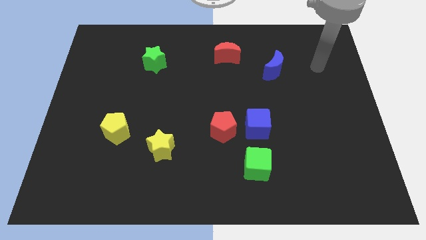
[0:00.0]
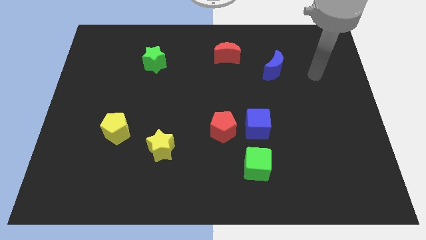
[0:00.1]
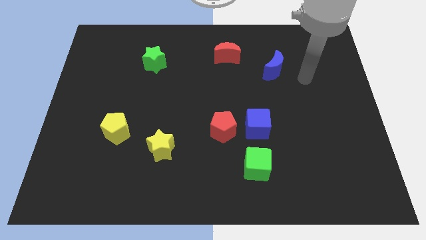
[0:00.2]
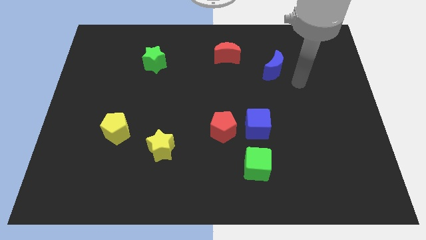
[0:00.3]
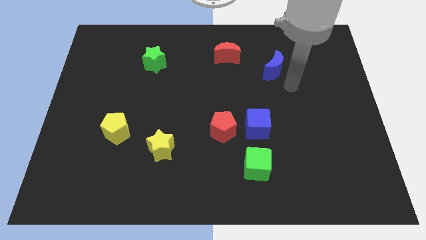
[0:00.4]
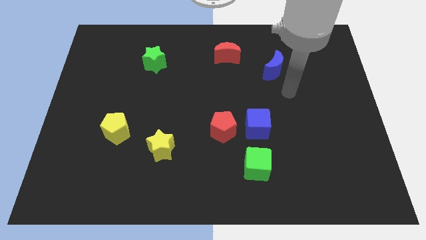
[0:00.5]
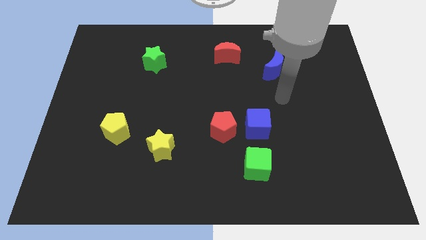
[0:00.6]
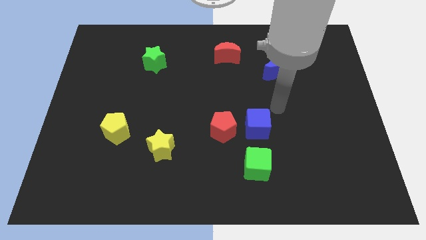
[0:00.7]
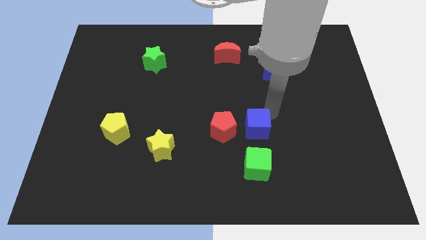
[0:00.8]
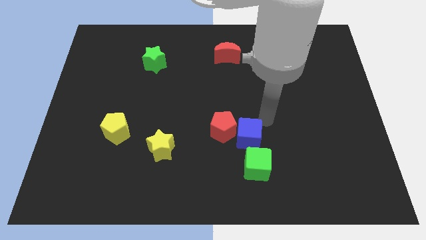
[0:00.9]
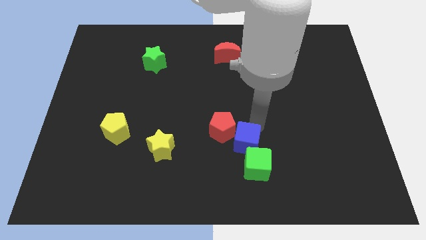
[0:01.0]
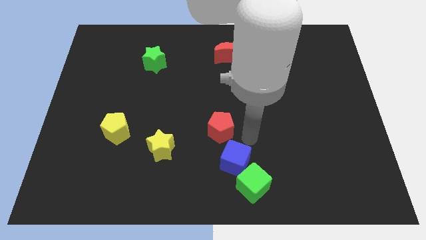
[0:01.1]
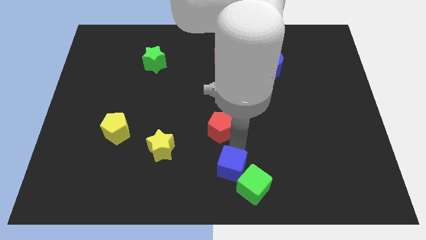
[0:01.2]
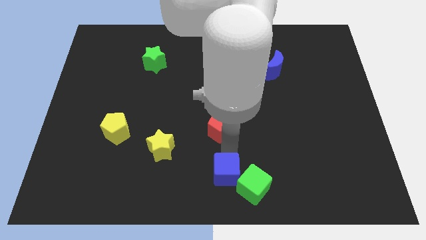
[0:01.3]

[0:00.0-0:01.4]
separate the red pentagon from the blue cube

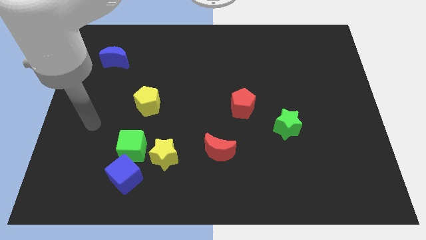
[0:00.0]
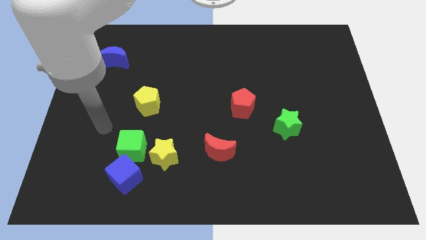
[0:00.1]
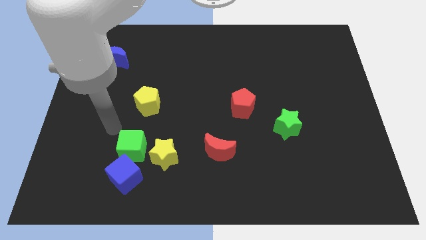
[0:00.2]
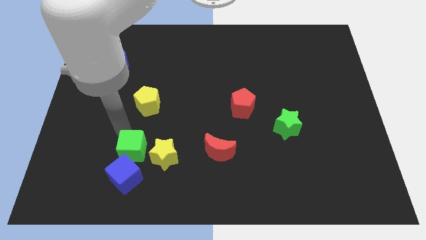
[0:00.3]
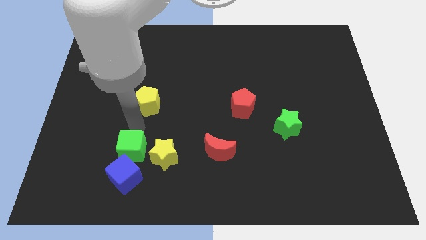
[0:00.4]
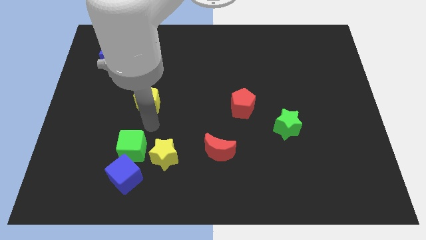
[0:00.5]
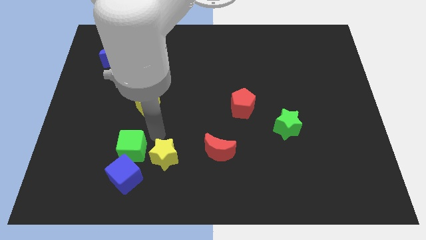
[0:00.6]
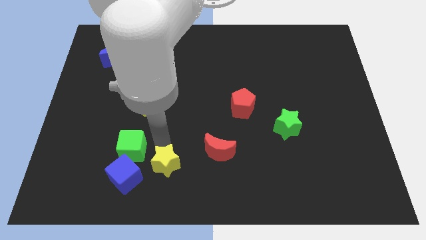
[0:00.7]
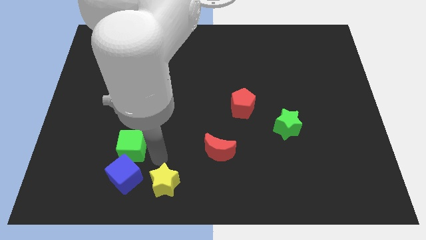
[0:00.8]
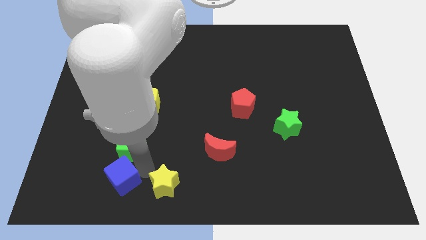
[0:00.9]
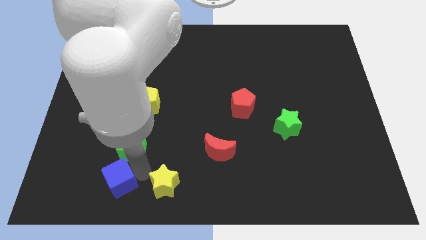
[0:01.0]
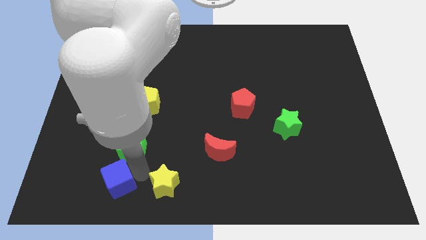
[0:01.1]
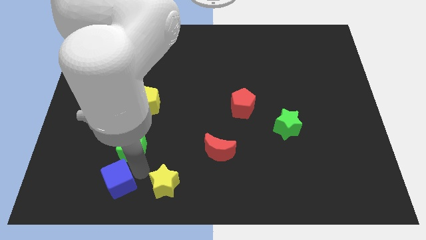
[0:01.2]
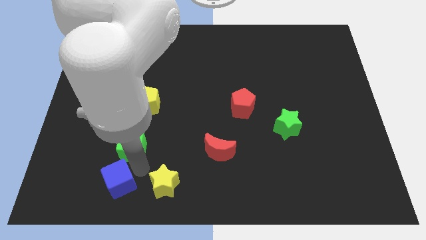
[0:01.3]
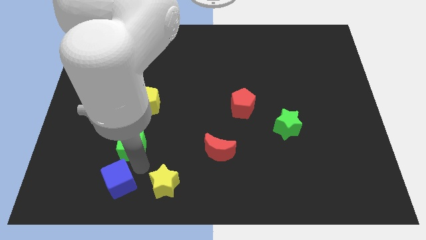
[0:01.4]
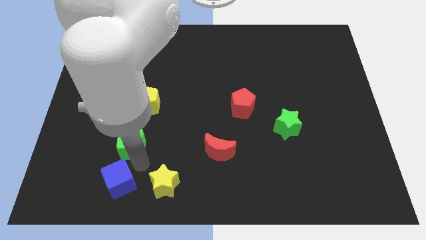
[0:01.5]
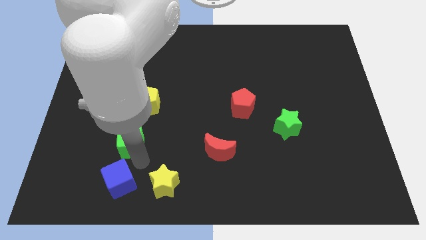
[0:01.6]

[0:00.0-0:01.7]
pull the green cube apart from the blue cube and yellow star

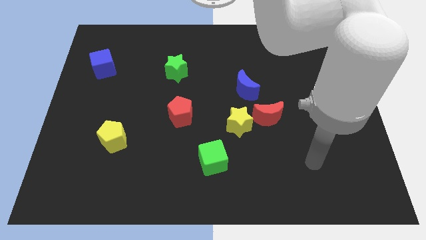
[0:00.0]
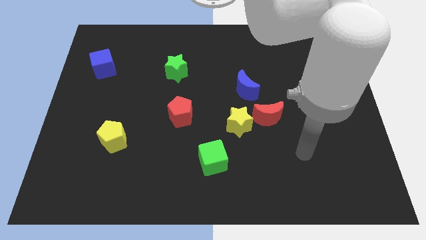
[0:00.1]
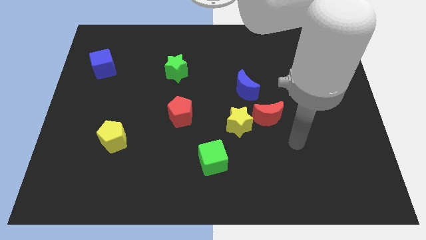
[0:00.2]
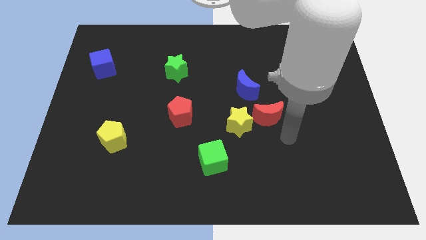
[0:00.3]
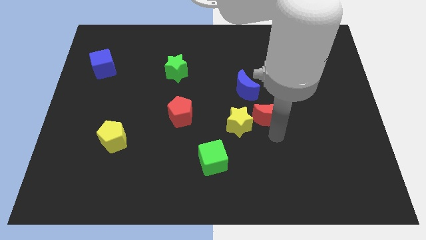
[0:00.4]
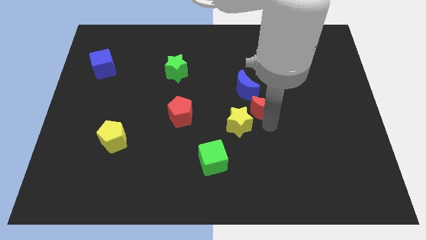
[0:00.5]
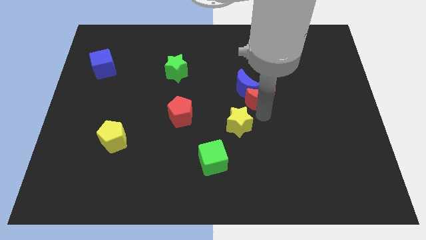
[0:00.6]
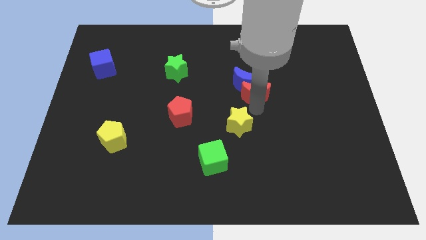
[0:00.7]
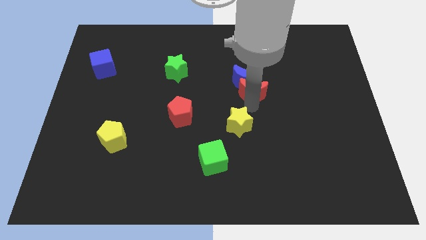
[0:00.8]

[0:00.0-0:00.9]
move the yellow star away from the red moon

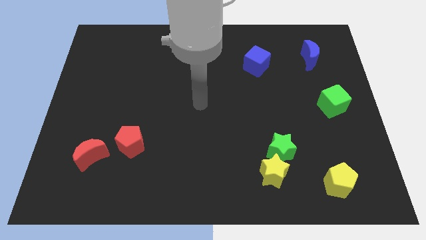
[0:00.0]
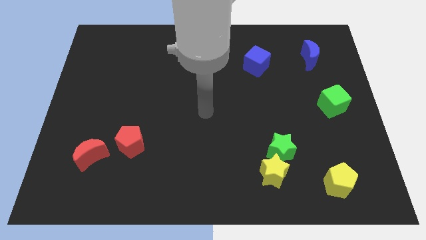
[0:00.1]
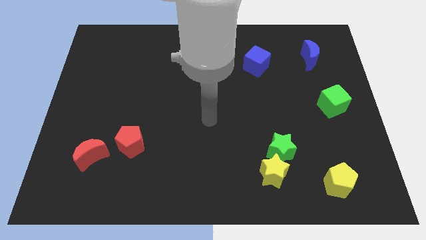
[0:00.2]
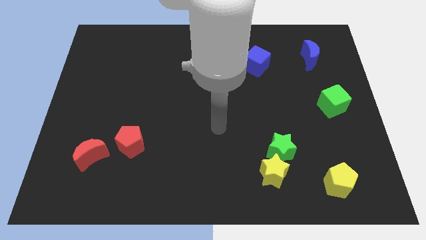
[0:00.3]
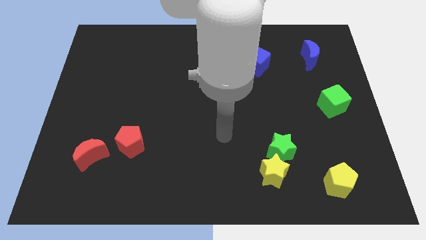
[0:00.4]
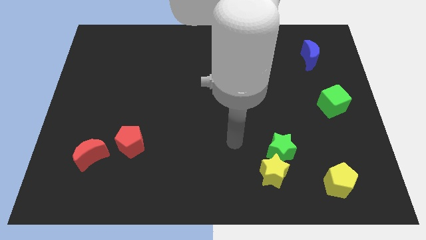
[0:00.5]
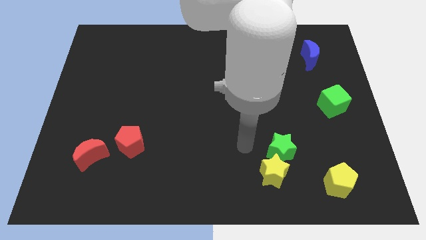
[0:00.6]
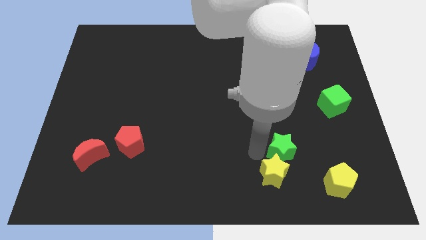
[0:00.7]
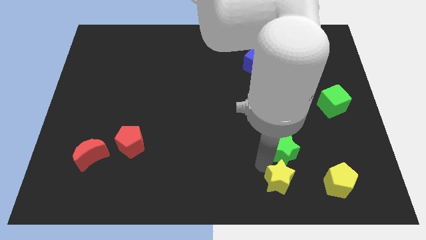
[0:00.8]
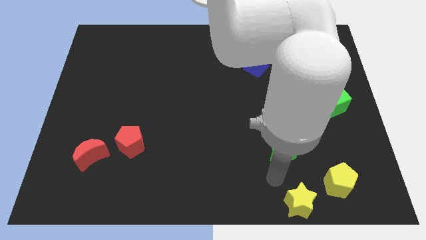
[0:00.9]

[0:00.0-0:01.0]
pull the green star apart from the yellow star

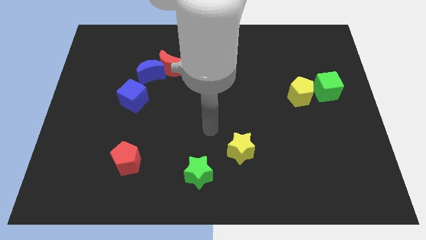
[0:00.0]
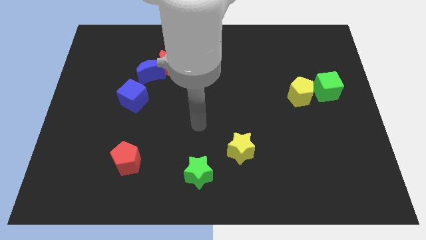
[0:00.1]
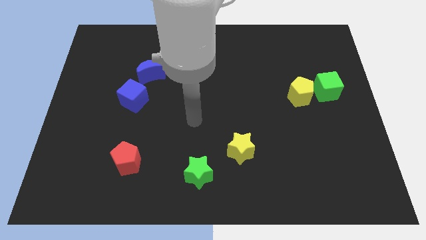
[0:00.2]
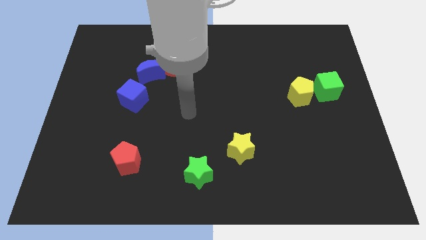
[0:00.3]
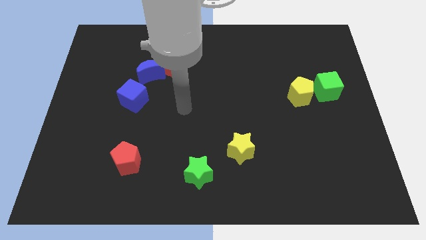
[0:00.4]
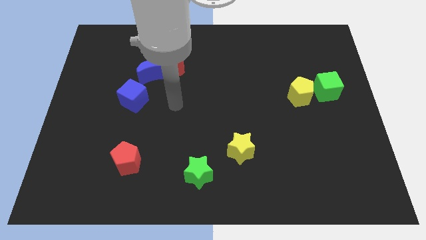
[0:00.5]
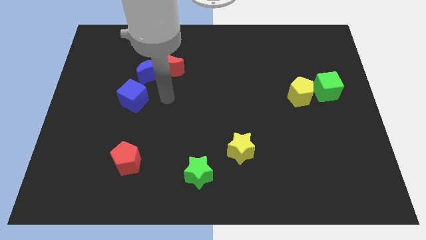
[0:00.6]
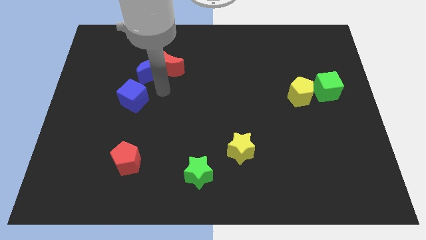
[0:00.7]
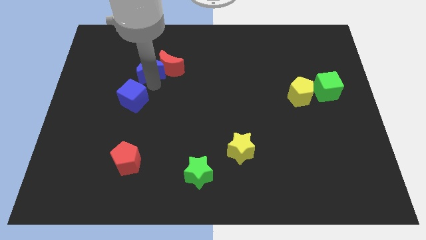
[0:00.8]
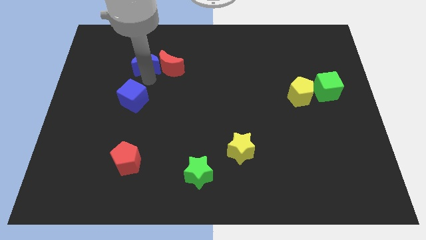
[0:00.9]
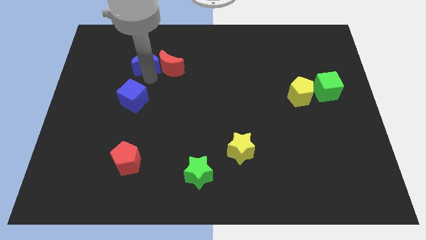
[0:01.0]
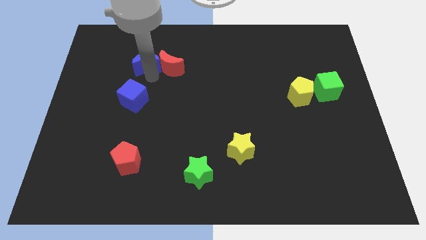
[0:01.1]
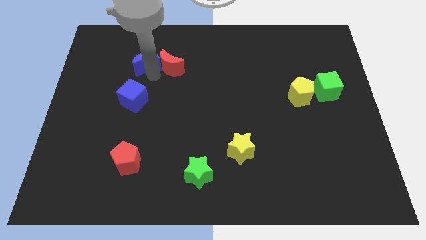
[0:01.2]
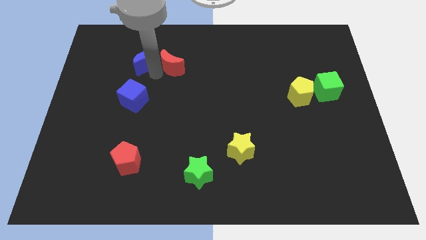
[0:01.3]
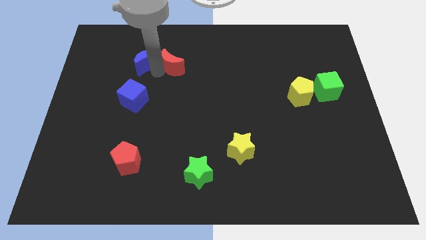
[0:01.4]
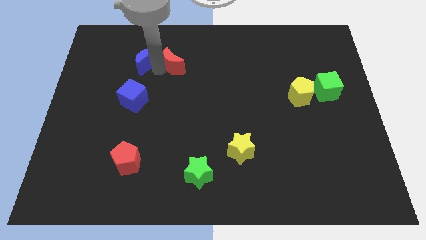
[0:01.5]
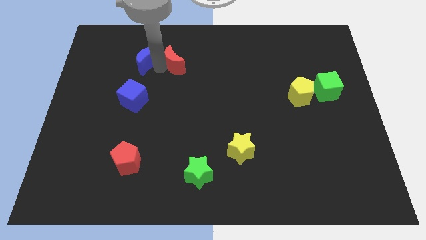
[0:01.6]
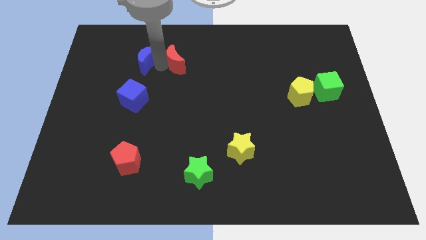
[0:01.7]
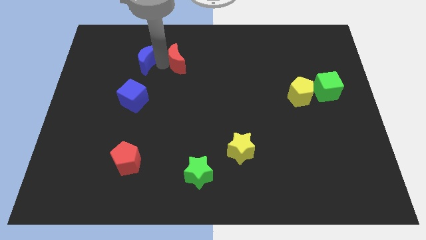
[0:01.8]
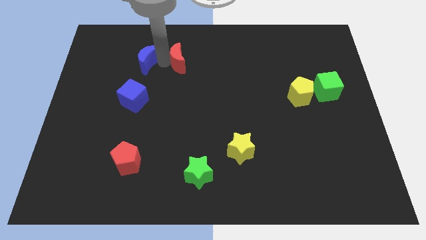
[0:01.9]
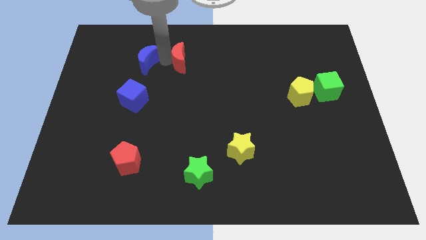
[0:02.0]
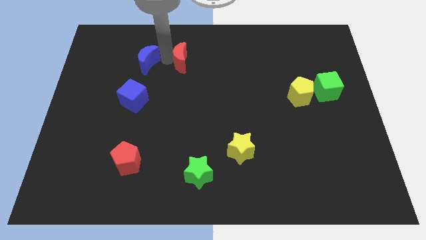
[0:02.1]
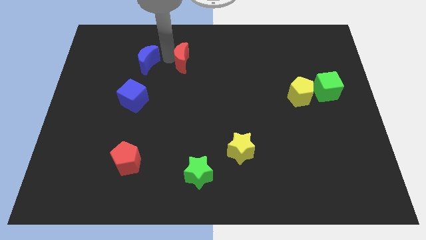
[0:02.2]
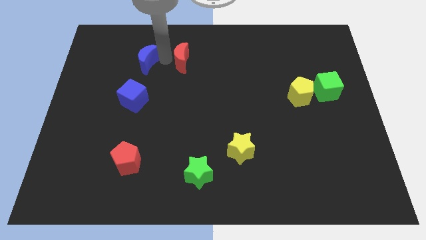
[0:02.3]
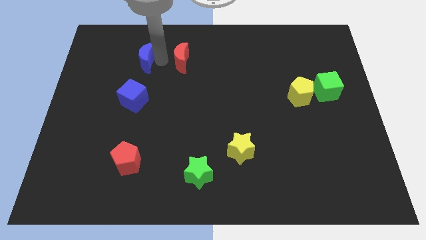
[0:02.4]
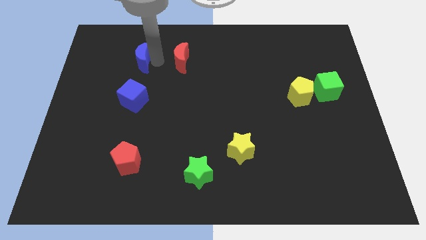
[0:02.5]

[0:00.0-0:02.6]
pull the red moon apart from the blue moon

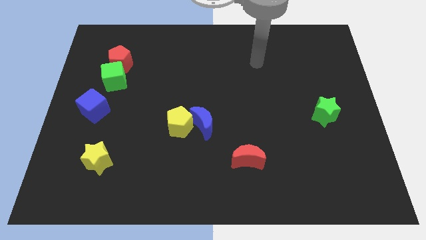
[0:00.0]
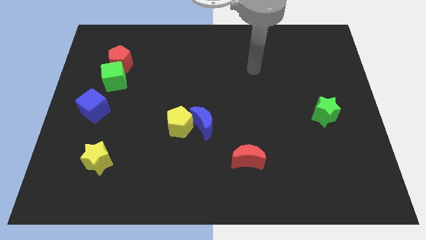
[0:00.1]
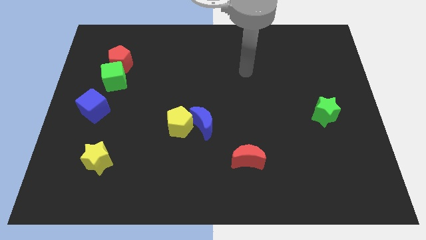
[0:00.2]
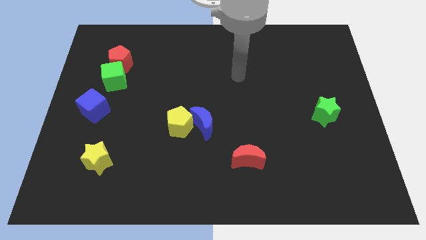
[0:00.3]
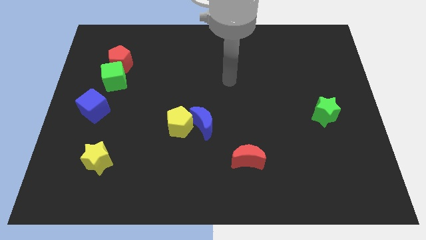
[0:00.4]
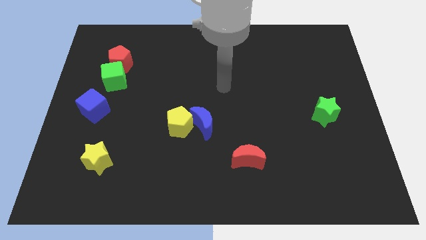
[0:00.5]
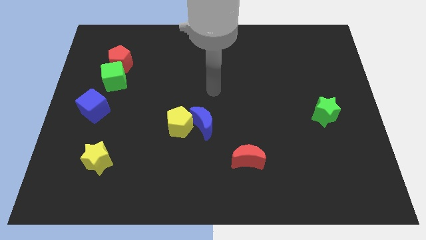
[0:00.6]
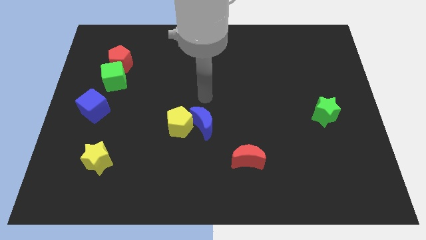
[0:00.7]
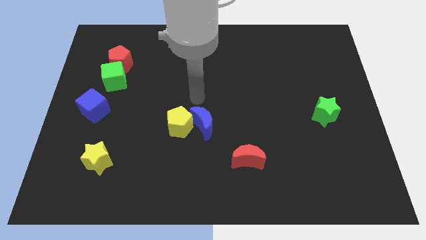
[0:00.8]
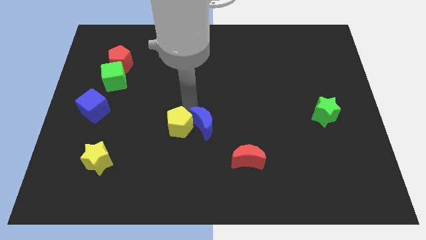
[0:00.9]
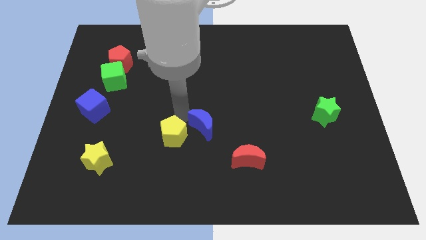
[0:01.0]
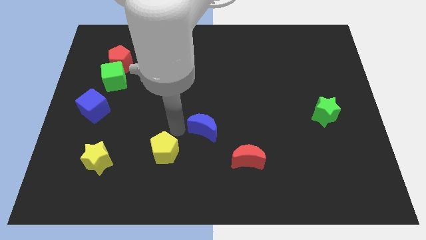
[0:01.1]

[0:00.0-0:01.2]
separate the blue moon from the yellow pentagon

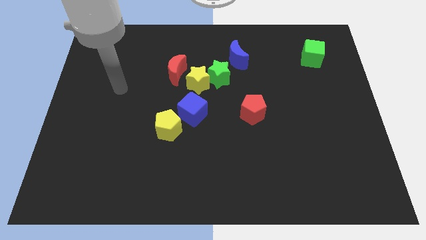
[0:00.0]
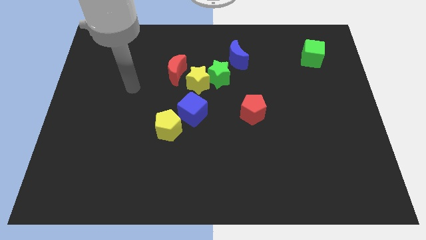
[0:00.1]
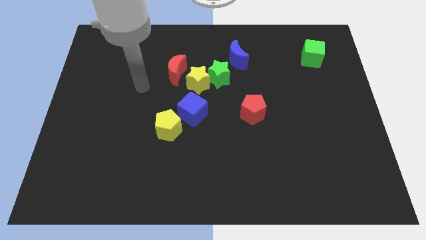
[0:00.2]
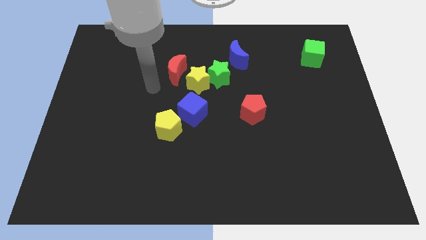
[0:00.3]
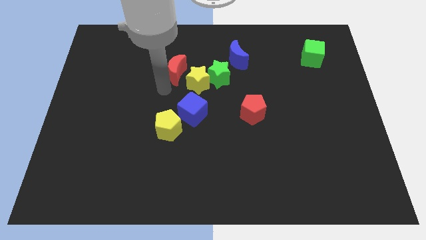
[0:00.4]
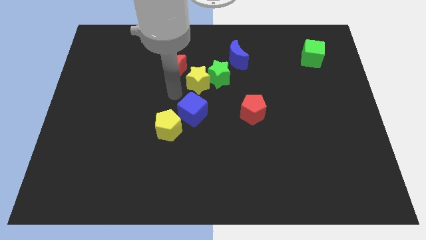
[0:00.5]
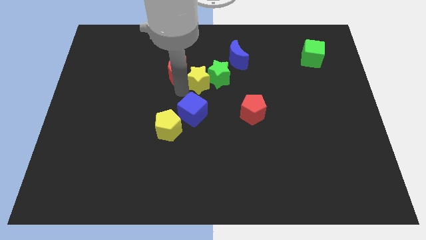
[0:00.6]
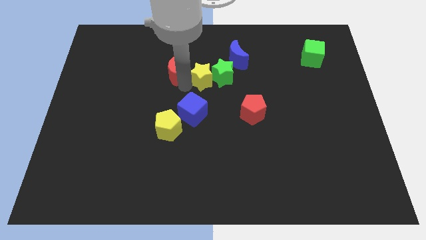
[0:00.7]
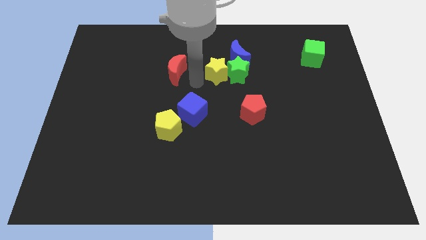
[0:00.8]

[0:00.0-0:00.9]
move the red moon away from the yellow star
